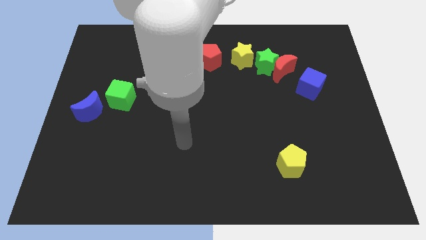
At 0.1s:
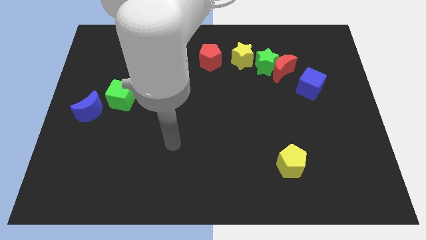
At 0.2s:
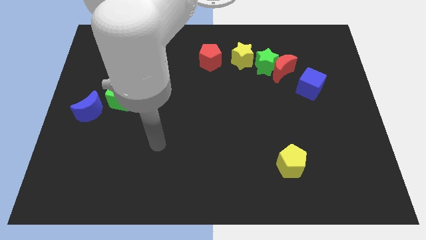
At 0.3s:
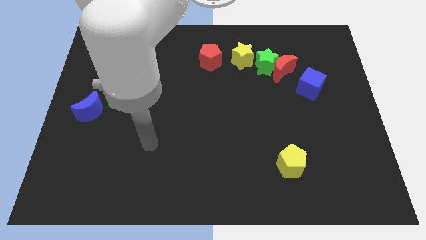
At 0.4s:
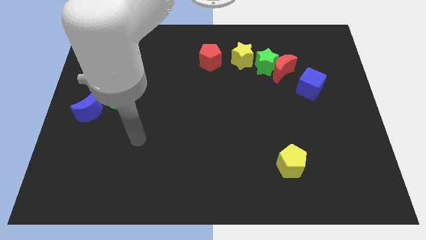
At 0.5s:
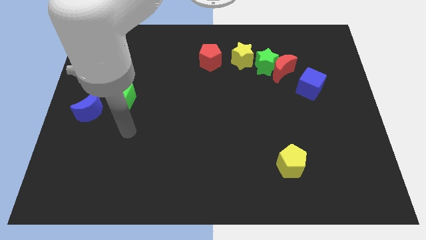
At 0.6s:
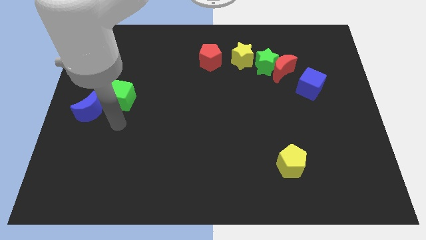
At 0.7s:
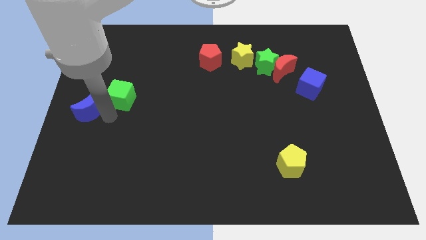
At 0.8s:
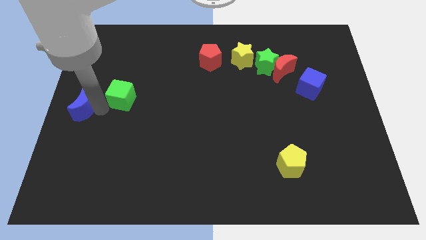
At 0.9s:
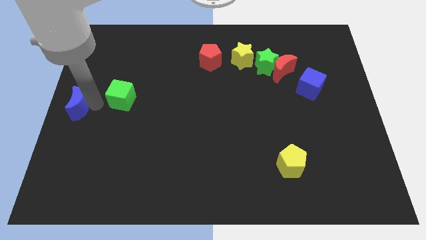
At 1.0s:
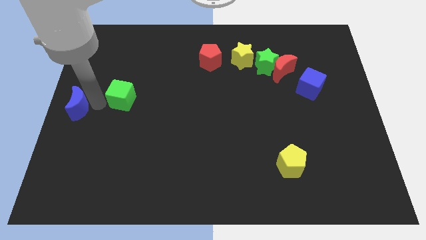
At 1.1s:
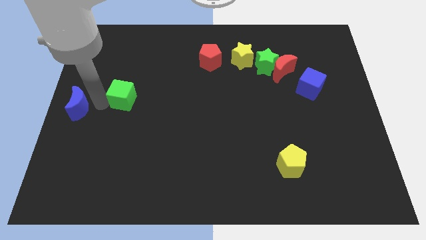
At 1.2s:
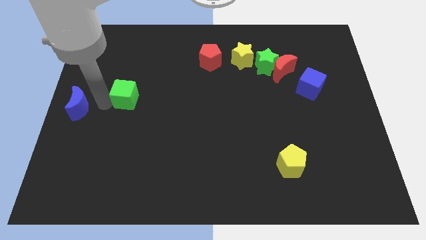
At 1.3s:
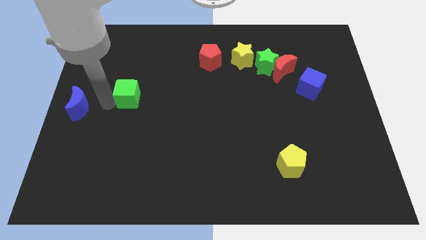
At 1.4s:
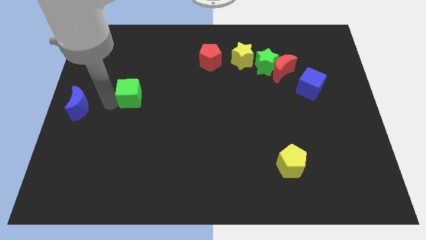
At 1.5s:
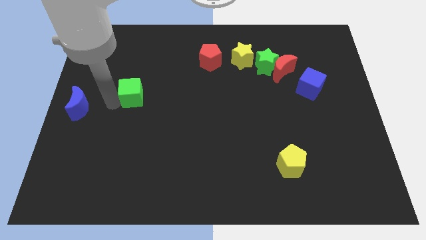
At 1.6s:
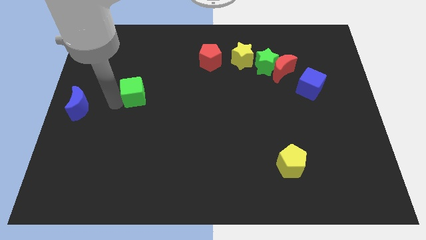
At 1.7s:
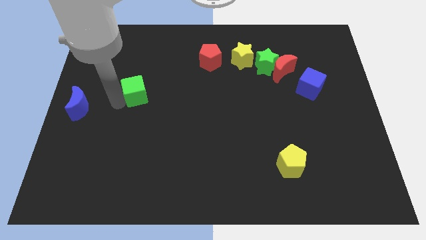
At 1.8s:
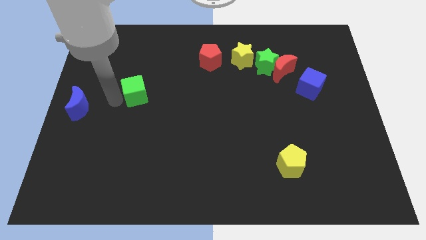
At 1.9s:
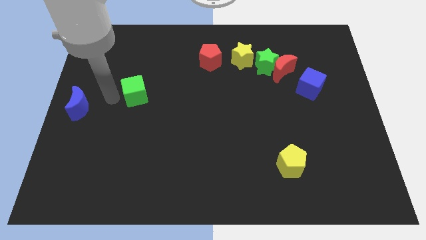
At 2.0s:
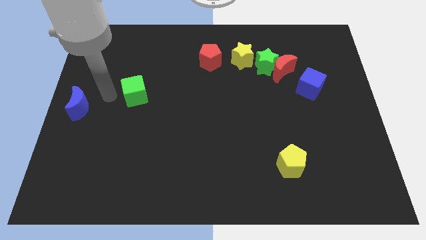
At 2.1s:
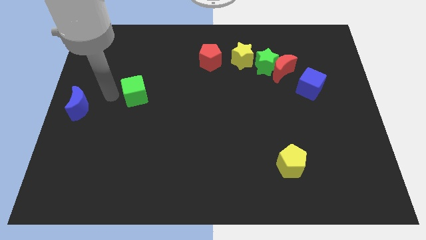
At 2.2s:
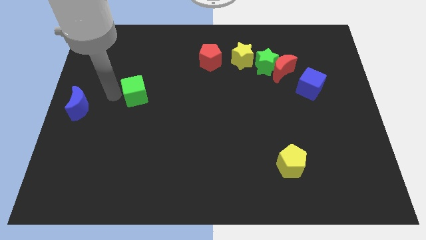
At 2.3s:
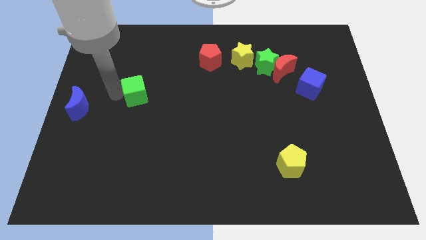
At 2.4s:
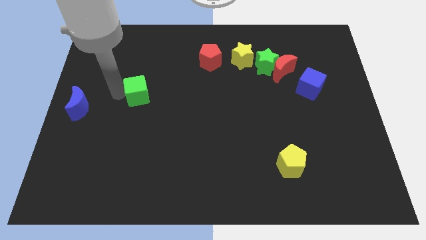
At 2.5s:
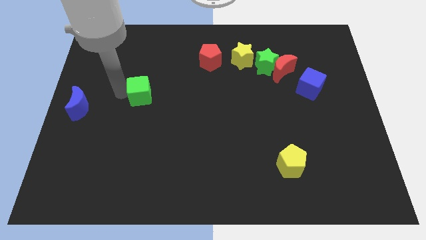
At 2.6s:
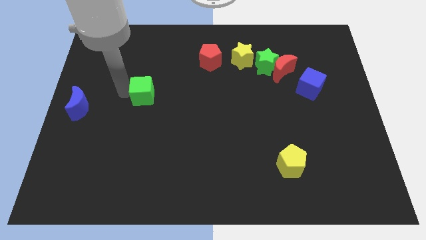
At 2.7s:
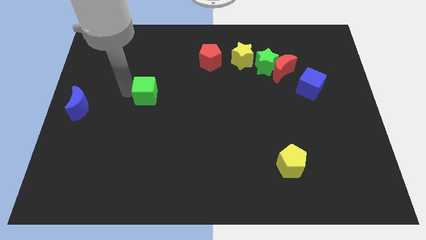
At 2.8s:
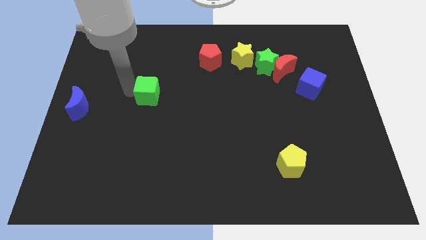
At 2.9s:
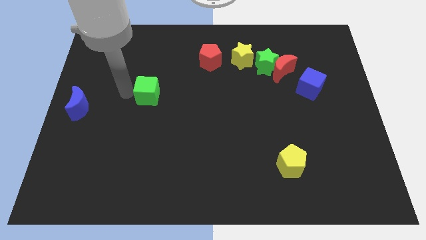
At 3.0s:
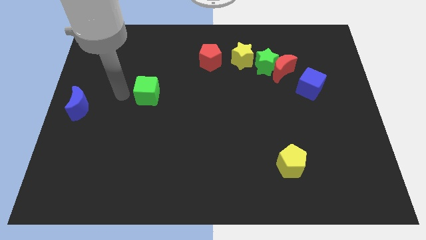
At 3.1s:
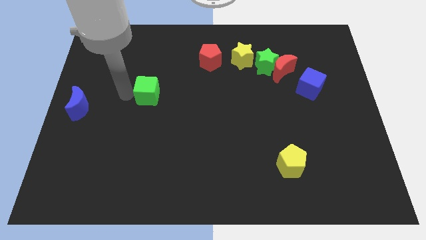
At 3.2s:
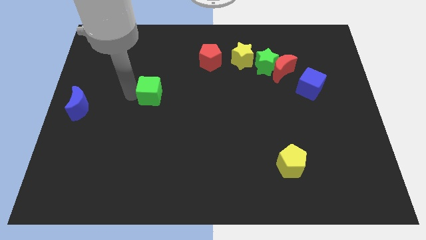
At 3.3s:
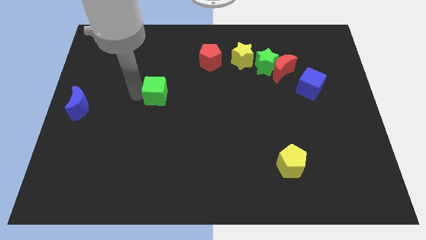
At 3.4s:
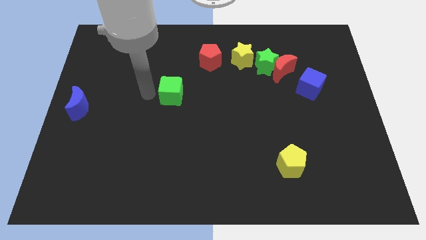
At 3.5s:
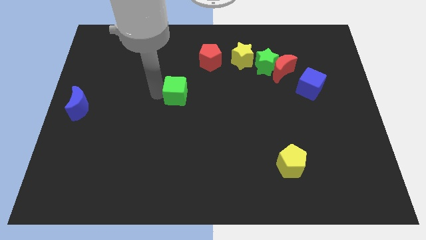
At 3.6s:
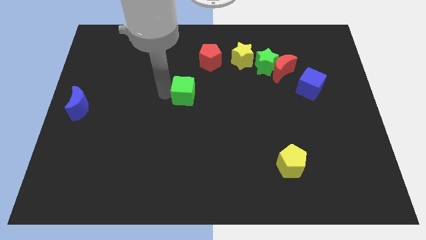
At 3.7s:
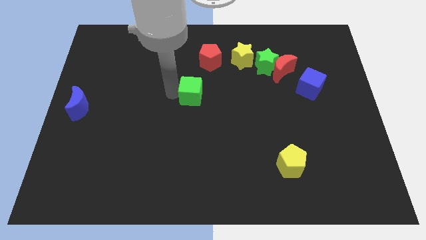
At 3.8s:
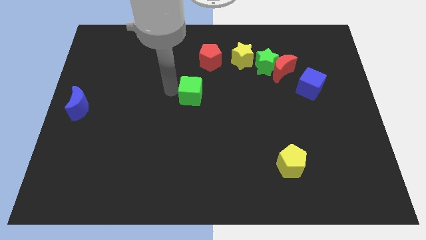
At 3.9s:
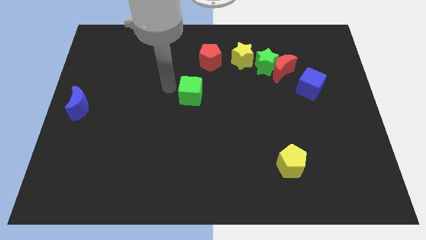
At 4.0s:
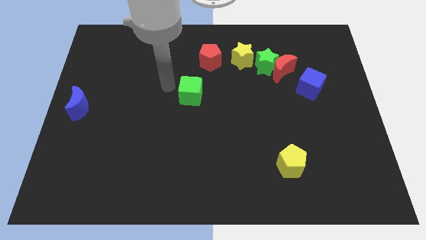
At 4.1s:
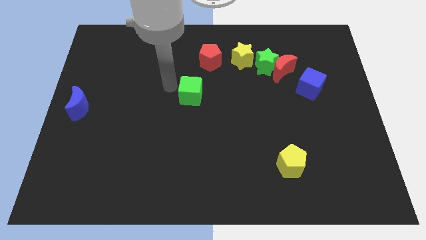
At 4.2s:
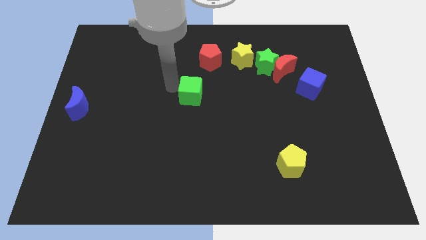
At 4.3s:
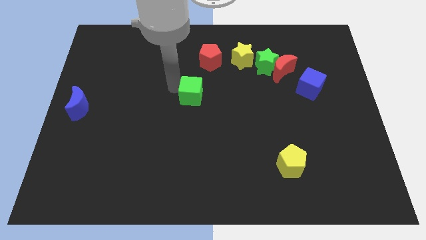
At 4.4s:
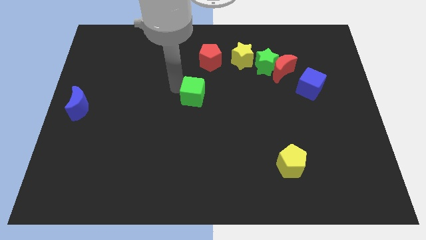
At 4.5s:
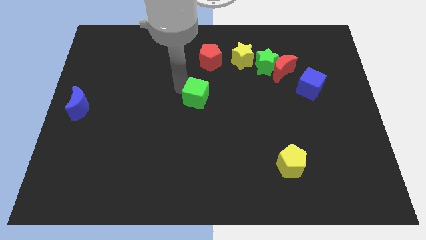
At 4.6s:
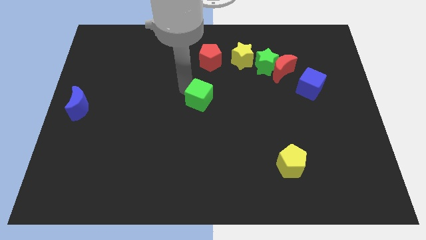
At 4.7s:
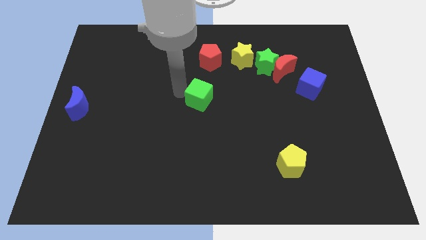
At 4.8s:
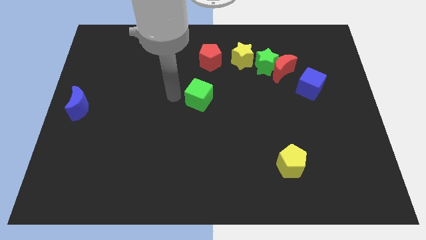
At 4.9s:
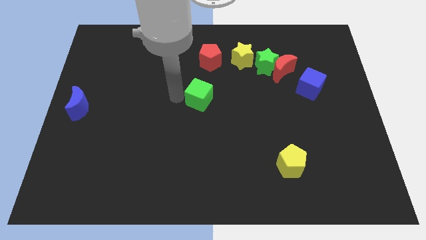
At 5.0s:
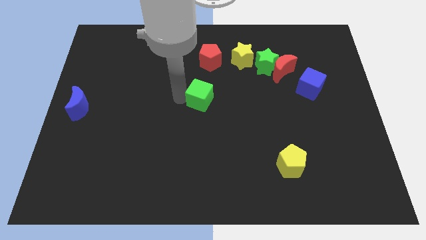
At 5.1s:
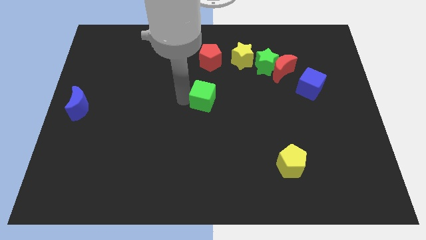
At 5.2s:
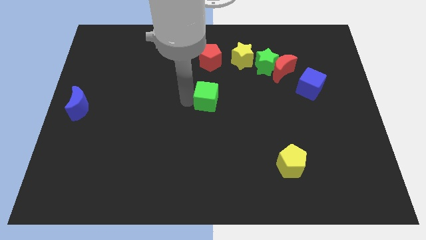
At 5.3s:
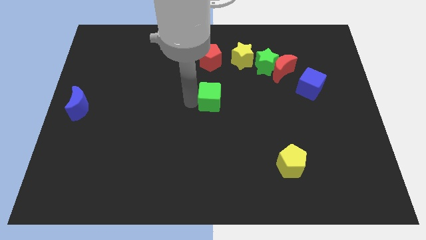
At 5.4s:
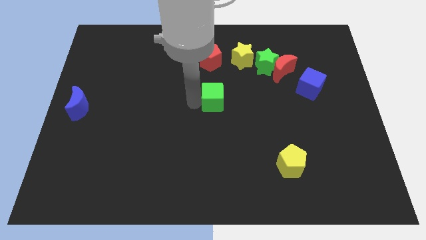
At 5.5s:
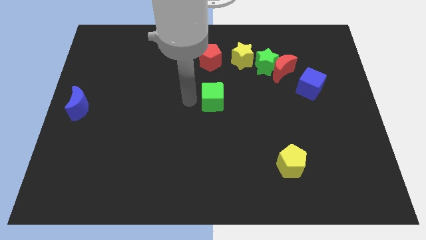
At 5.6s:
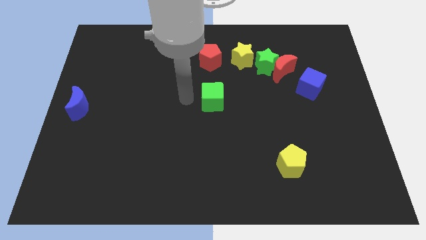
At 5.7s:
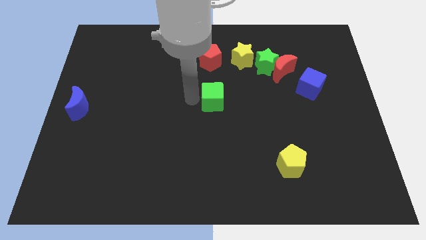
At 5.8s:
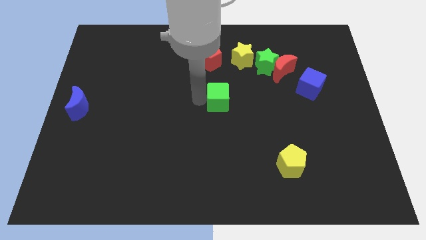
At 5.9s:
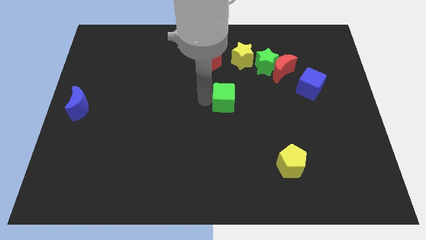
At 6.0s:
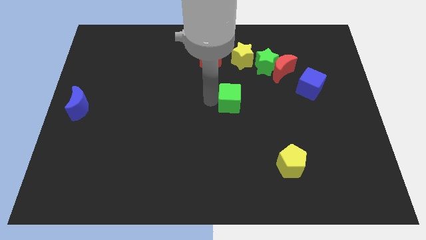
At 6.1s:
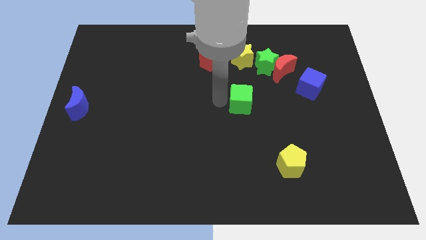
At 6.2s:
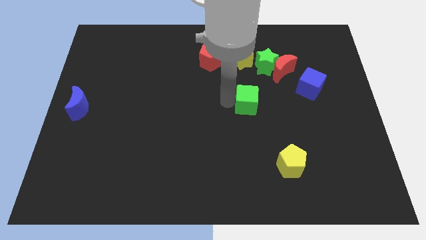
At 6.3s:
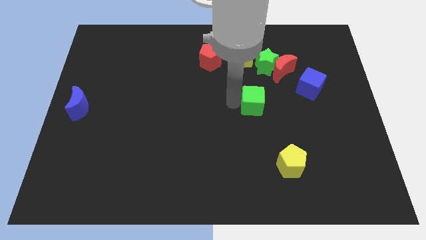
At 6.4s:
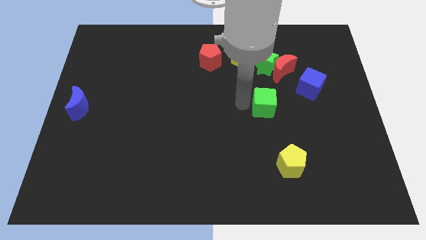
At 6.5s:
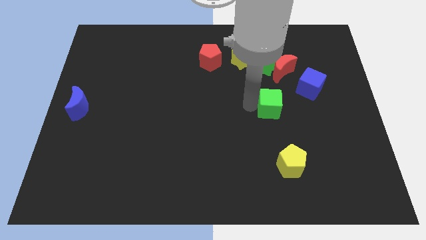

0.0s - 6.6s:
put the green cube to the bottom of the red moon

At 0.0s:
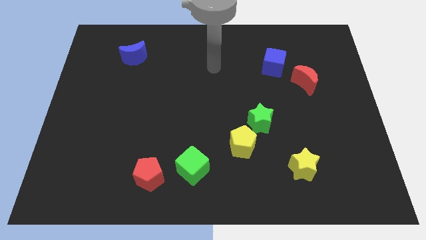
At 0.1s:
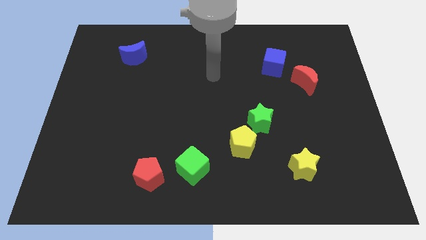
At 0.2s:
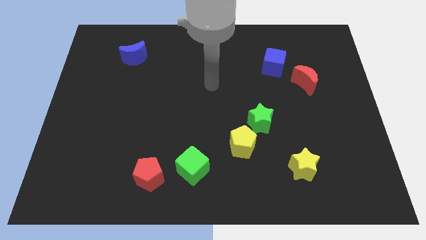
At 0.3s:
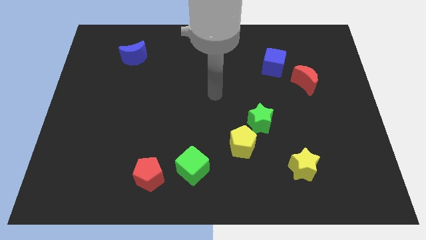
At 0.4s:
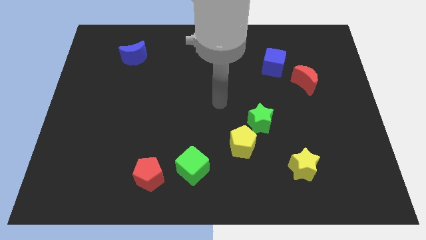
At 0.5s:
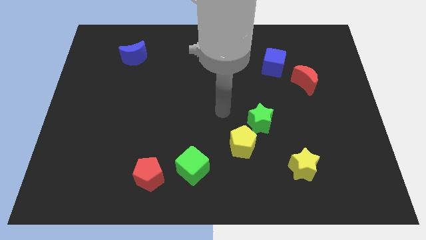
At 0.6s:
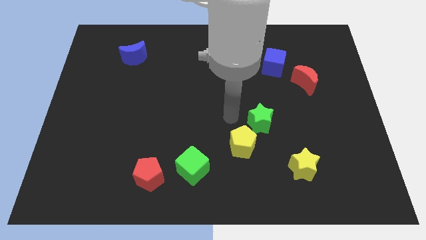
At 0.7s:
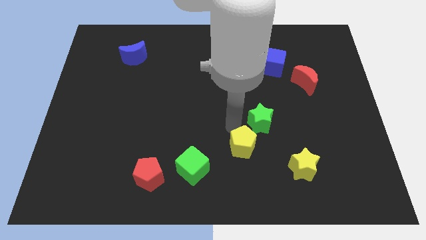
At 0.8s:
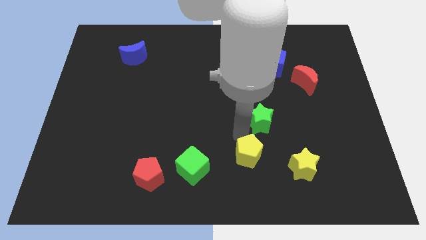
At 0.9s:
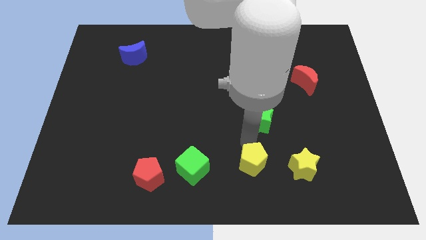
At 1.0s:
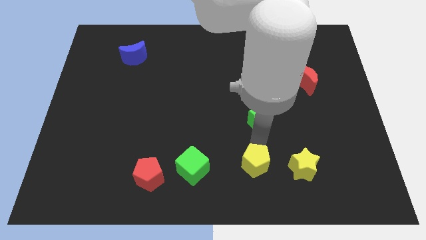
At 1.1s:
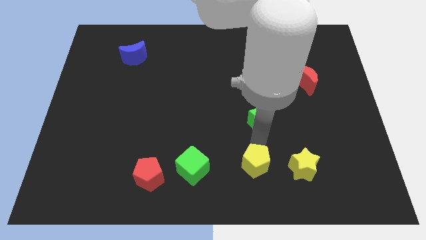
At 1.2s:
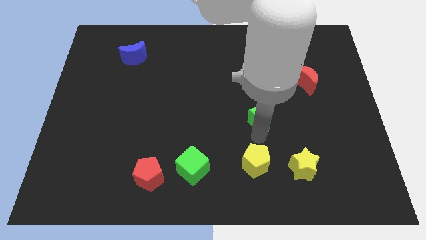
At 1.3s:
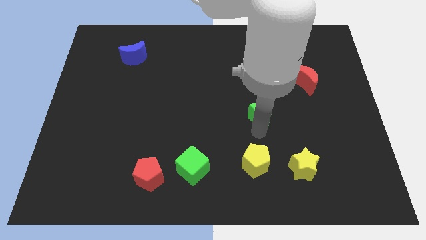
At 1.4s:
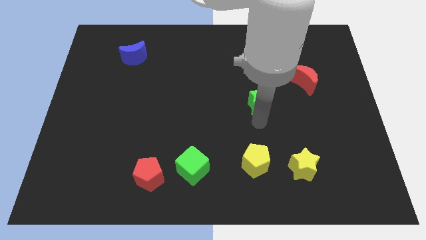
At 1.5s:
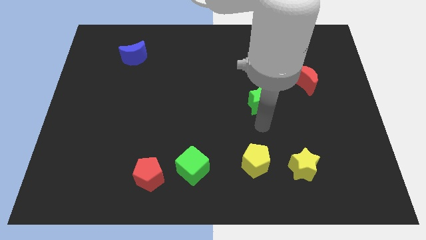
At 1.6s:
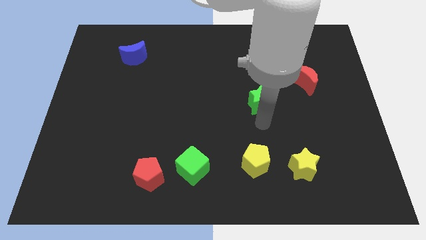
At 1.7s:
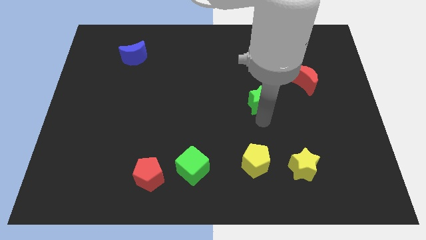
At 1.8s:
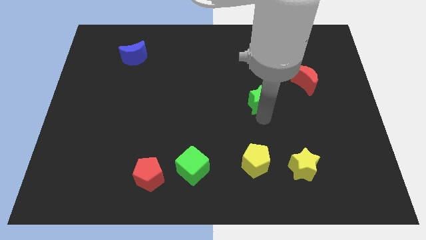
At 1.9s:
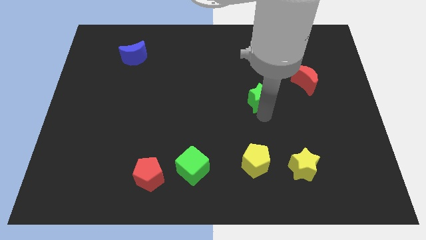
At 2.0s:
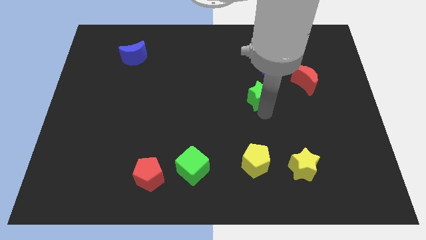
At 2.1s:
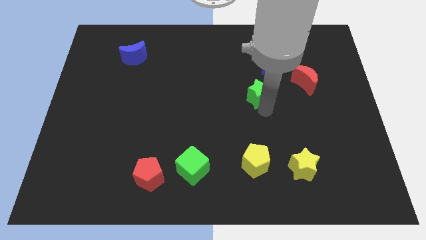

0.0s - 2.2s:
move the green star to the bottom left of the blue cube
